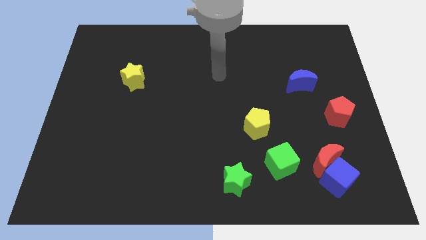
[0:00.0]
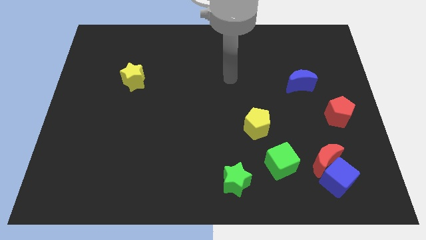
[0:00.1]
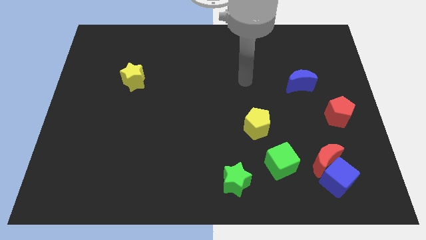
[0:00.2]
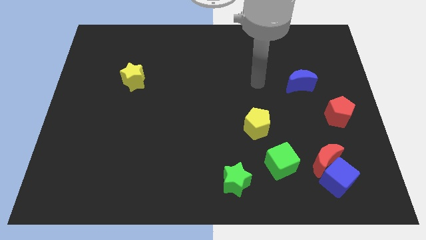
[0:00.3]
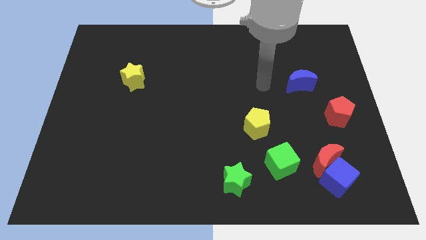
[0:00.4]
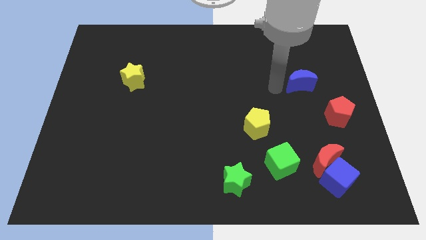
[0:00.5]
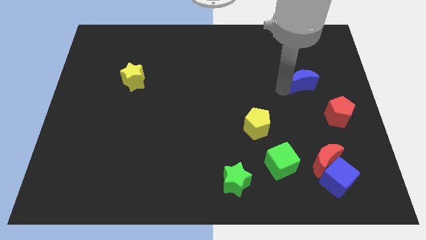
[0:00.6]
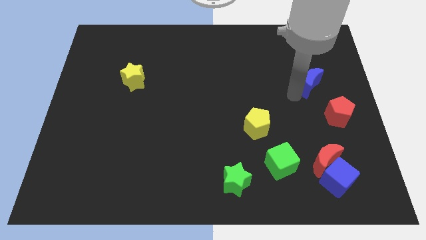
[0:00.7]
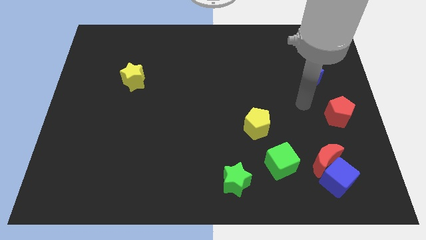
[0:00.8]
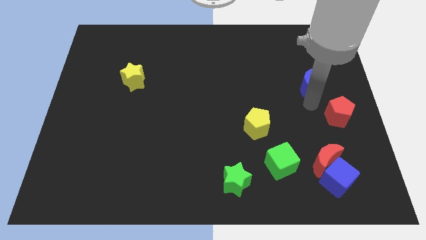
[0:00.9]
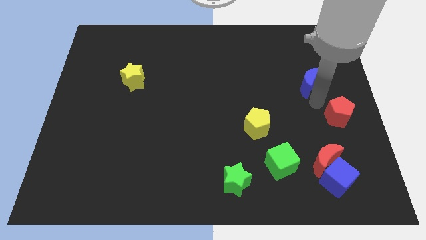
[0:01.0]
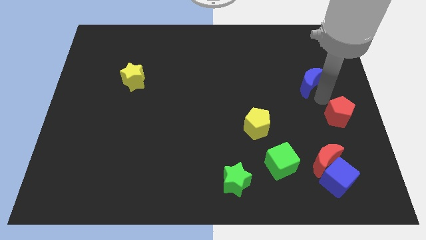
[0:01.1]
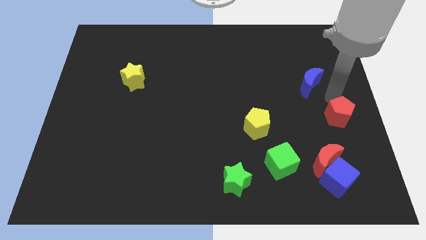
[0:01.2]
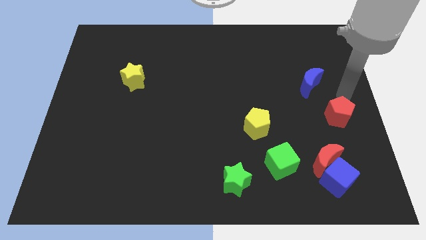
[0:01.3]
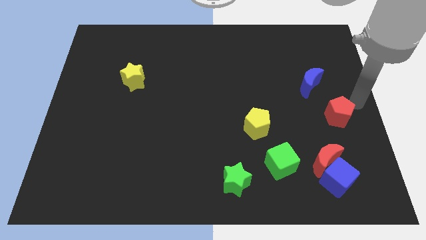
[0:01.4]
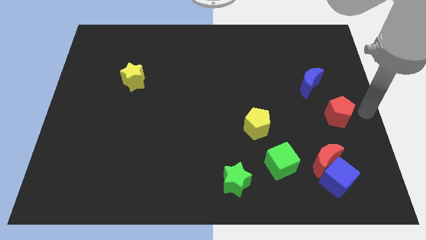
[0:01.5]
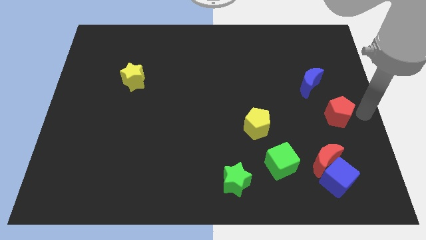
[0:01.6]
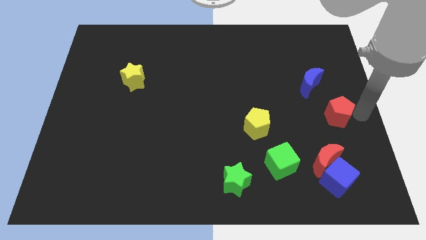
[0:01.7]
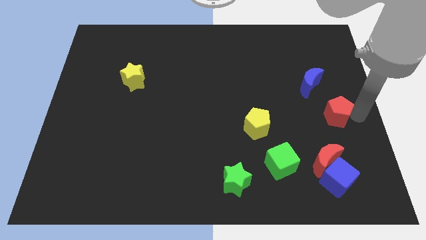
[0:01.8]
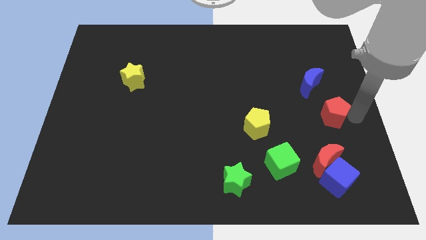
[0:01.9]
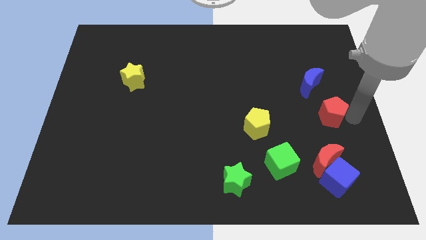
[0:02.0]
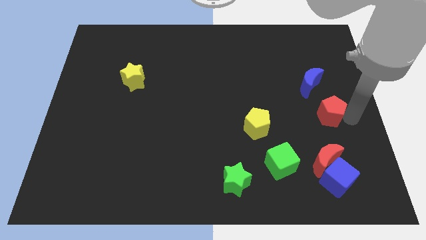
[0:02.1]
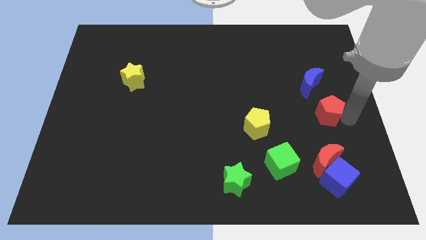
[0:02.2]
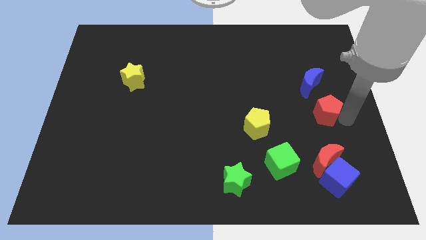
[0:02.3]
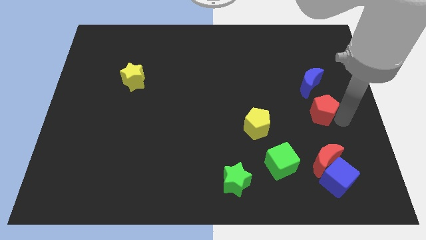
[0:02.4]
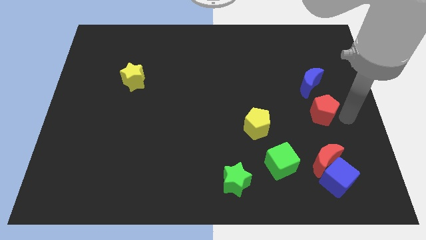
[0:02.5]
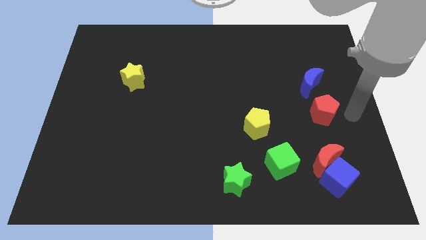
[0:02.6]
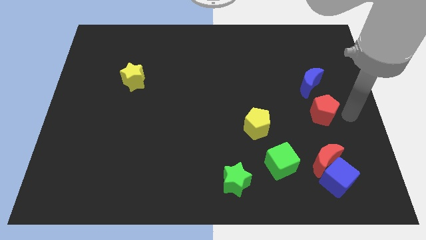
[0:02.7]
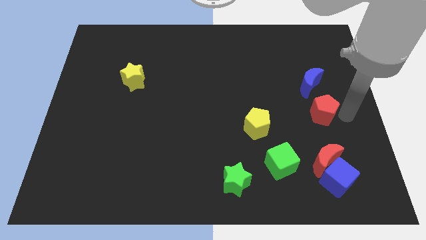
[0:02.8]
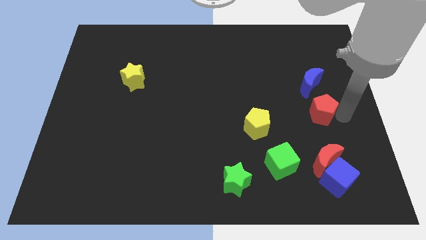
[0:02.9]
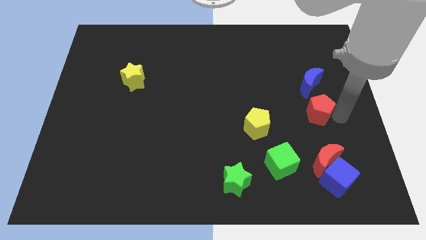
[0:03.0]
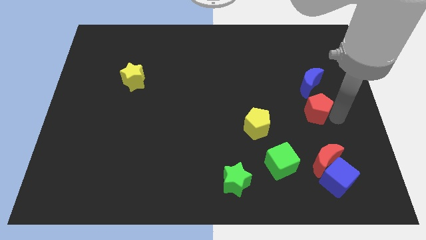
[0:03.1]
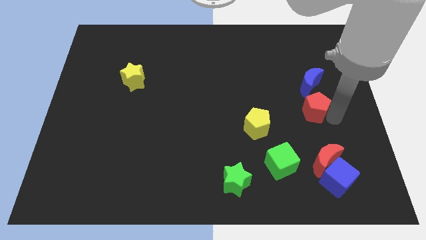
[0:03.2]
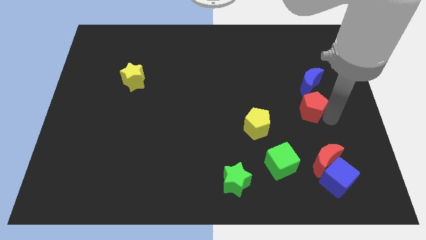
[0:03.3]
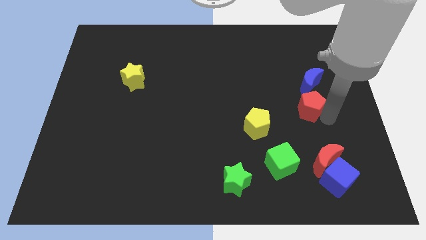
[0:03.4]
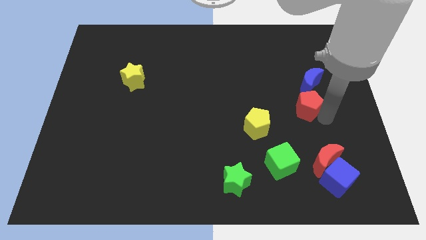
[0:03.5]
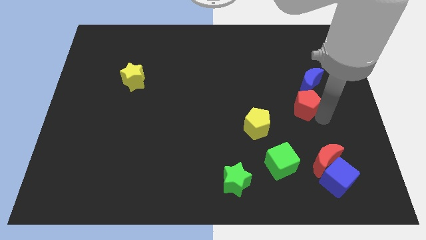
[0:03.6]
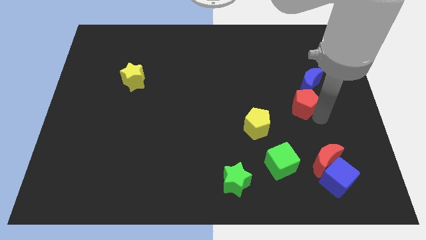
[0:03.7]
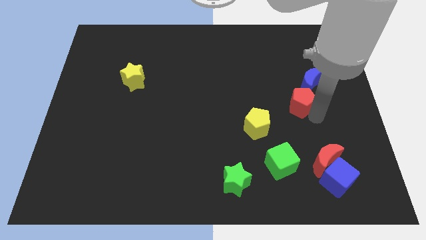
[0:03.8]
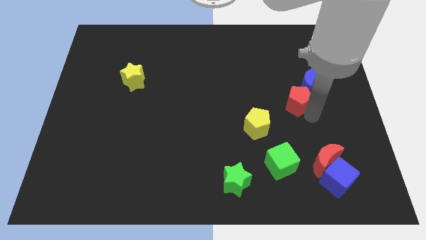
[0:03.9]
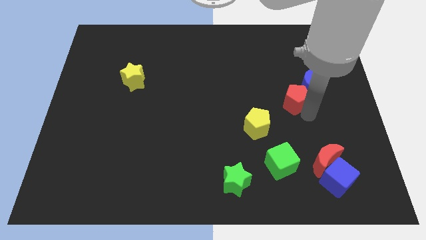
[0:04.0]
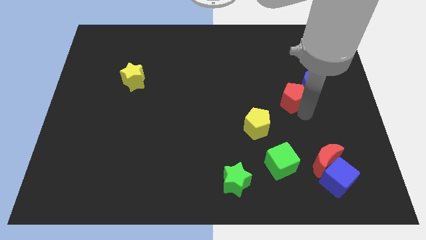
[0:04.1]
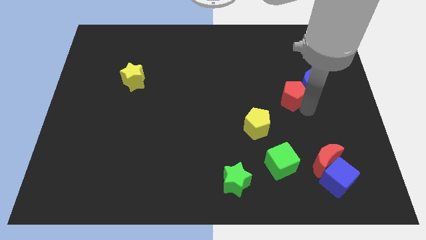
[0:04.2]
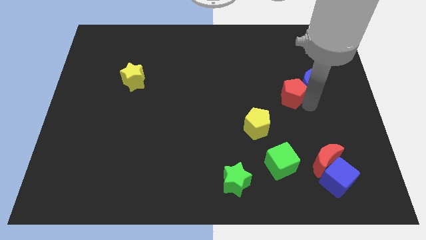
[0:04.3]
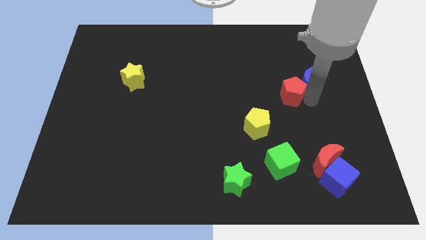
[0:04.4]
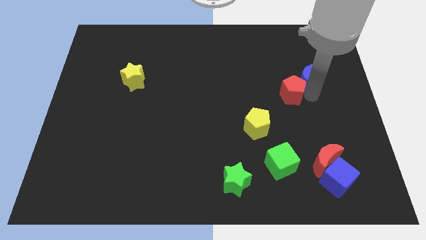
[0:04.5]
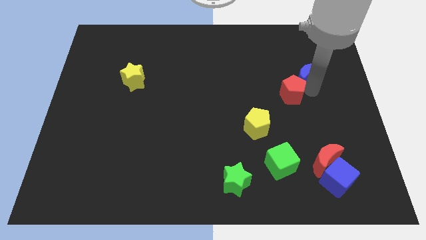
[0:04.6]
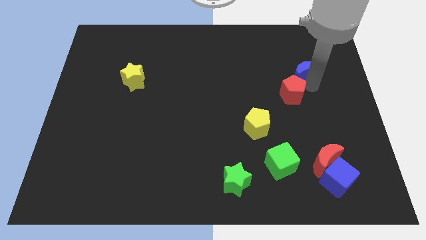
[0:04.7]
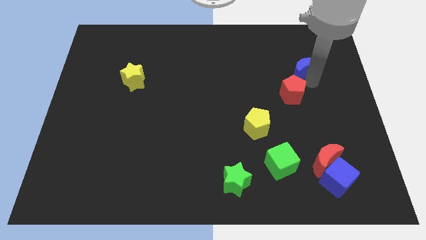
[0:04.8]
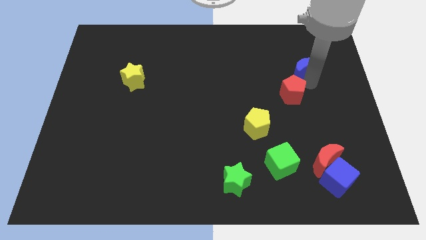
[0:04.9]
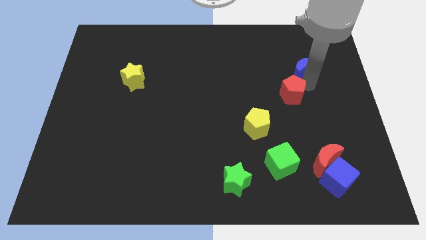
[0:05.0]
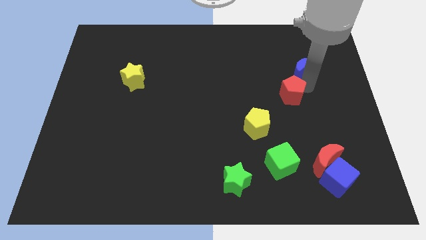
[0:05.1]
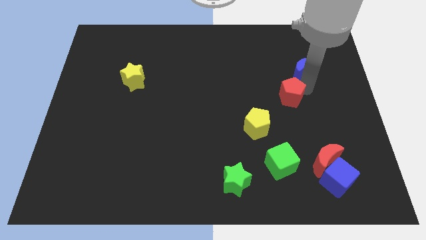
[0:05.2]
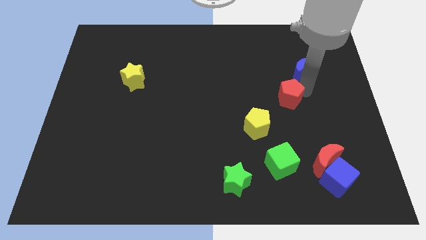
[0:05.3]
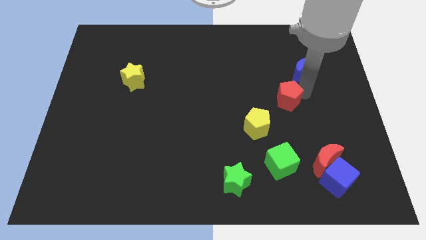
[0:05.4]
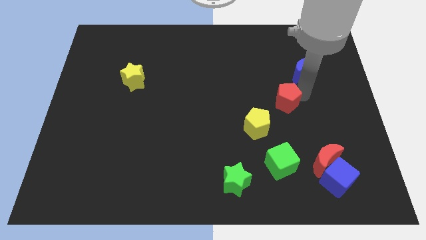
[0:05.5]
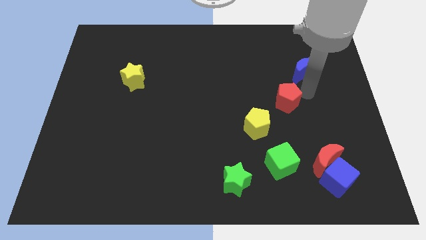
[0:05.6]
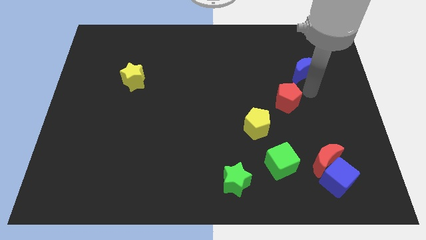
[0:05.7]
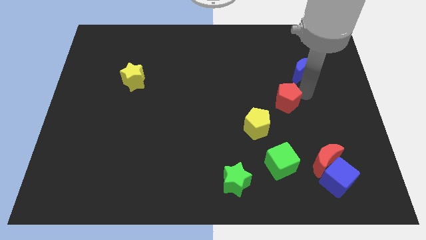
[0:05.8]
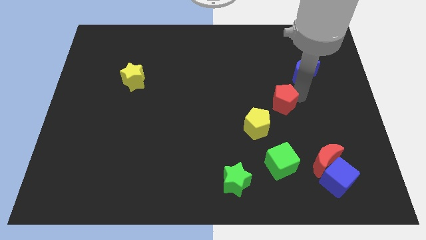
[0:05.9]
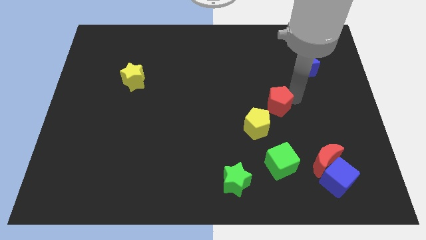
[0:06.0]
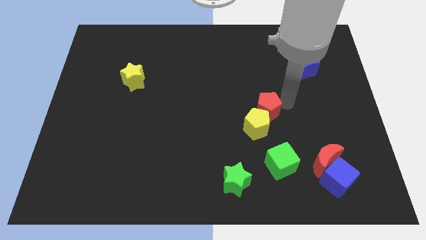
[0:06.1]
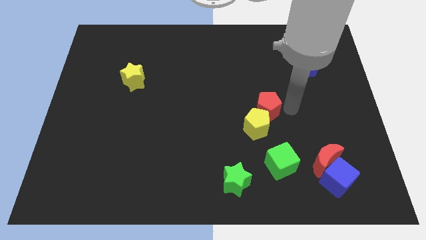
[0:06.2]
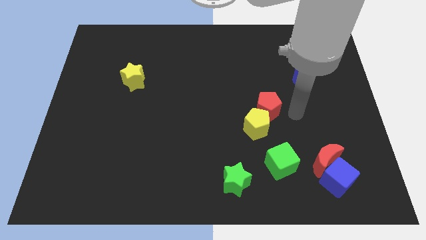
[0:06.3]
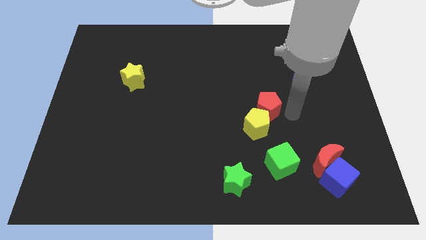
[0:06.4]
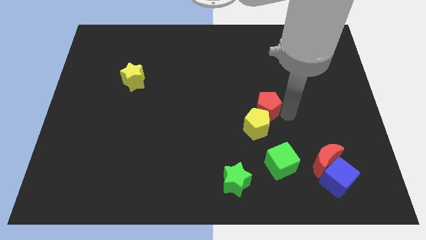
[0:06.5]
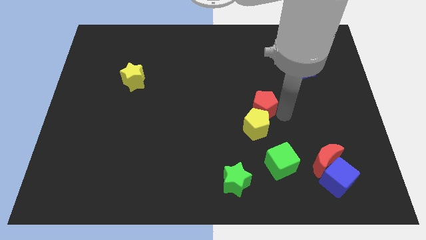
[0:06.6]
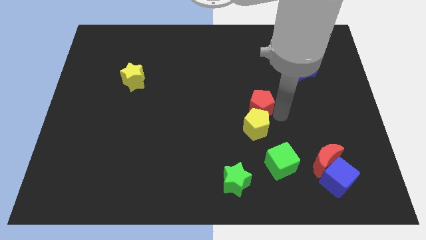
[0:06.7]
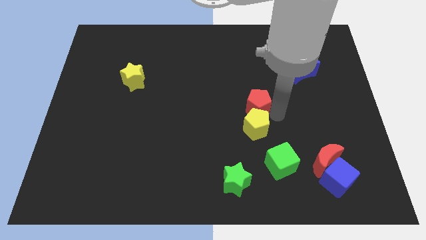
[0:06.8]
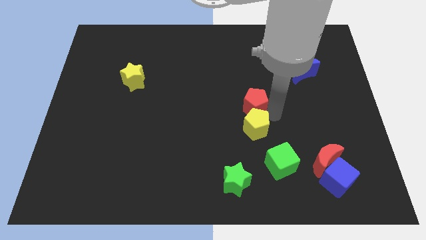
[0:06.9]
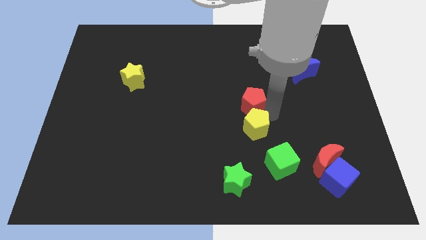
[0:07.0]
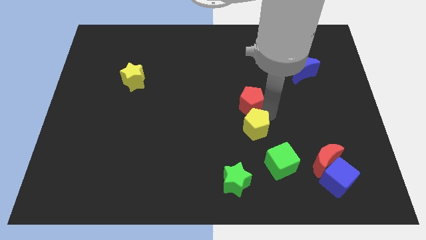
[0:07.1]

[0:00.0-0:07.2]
push the red pentagon left

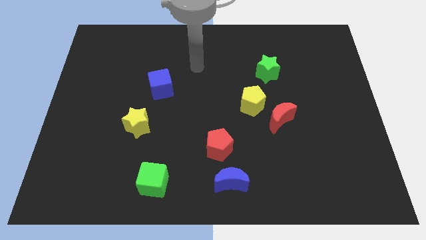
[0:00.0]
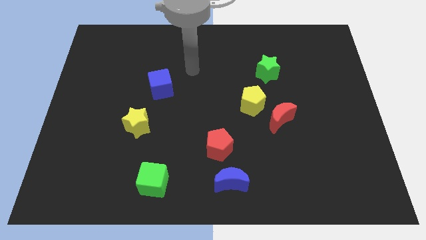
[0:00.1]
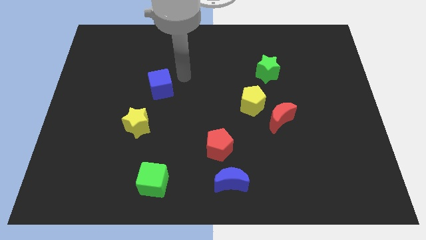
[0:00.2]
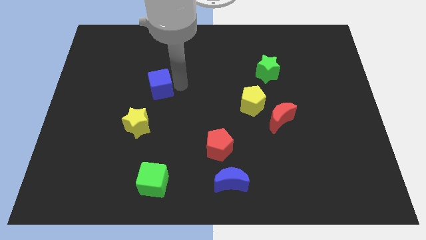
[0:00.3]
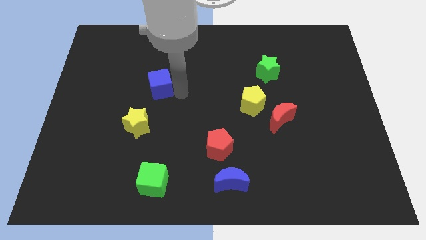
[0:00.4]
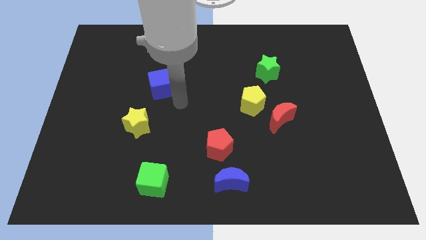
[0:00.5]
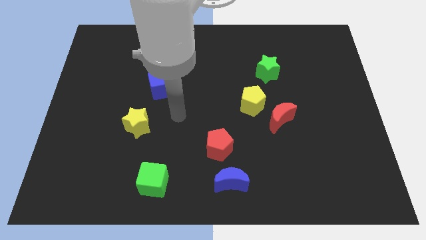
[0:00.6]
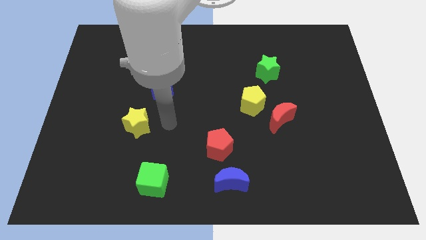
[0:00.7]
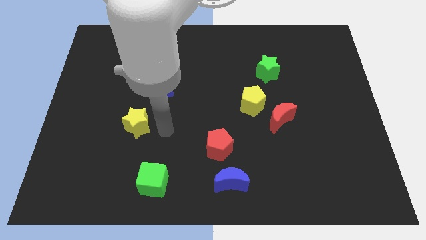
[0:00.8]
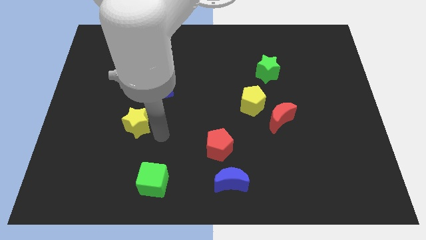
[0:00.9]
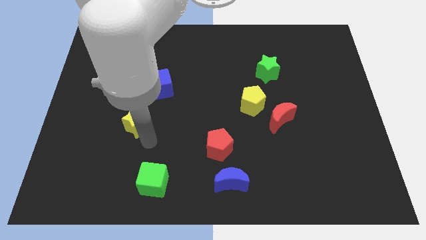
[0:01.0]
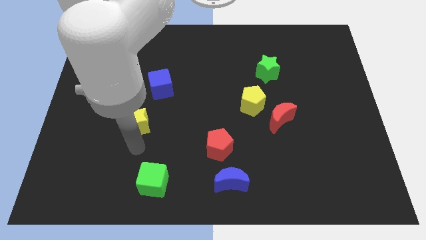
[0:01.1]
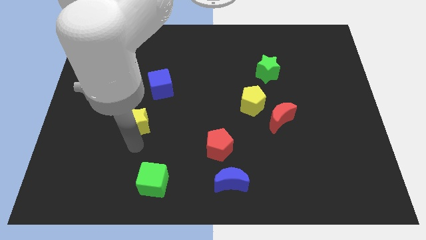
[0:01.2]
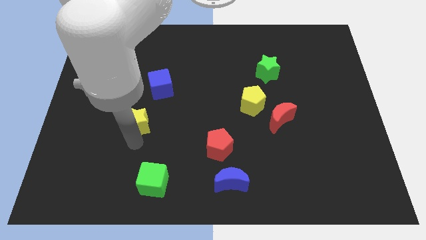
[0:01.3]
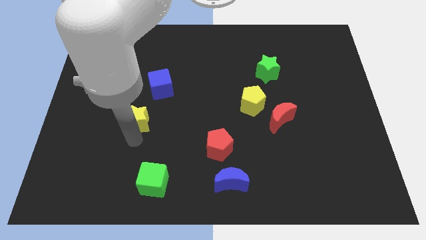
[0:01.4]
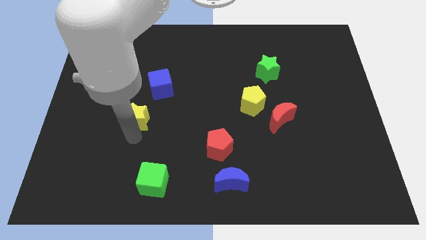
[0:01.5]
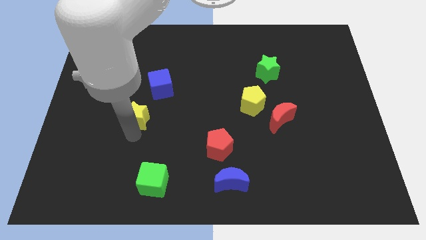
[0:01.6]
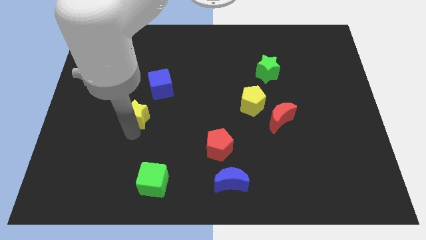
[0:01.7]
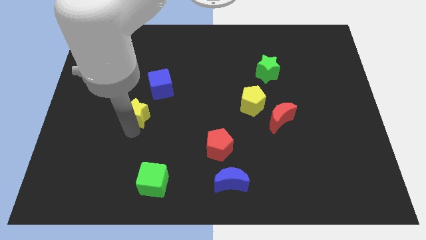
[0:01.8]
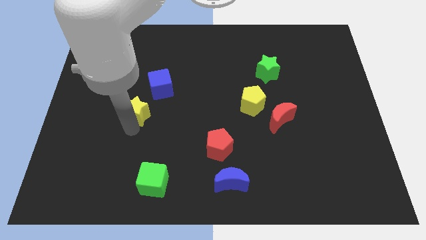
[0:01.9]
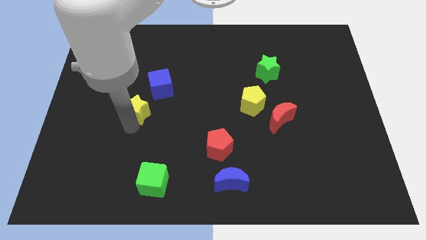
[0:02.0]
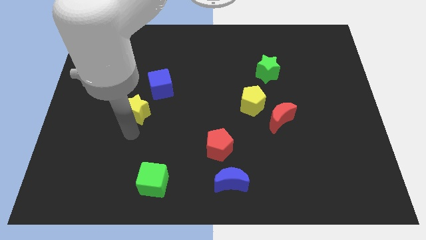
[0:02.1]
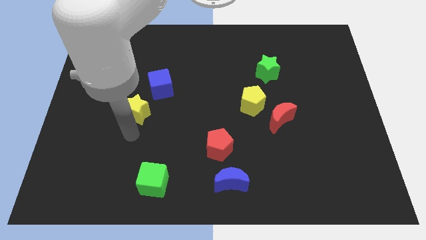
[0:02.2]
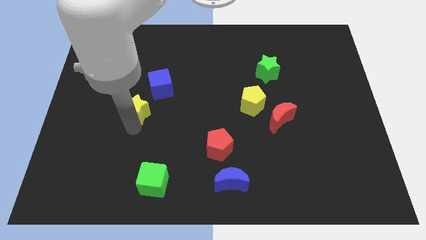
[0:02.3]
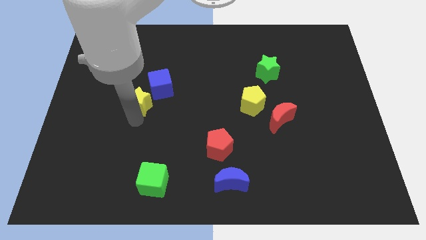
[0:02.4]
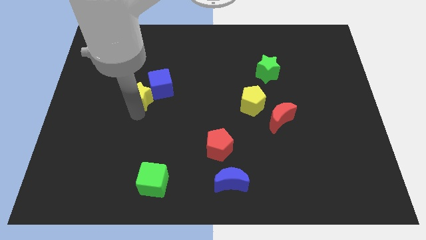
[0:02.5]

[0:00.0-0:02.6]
move the yellow star a little up
